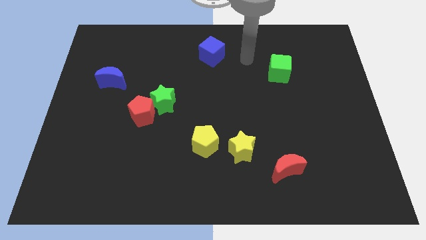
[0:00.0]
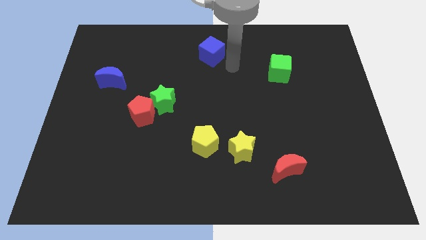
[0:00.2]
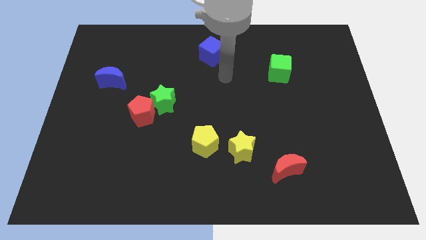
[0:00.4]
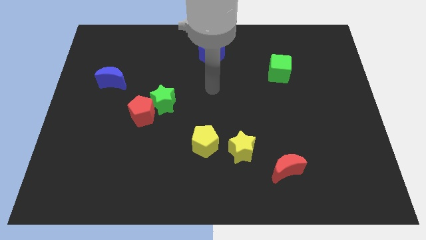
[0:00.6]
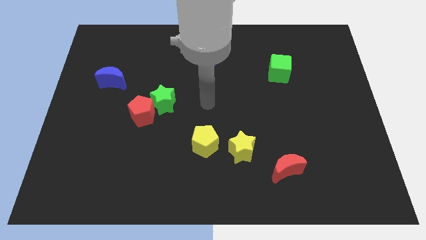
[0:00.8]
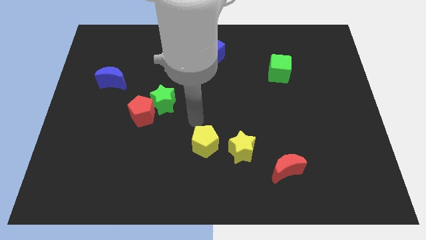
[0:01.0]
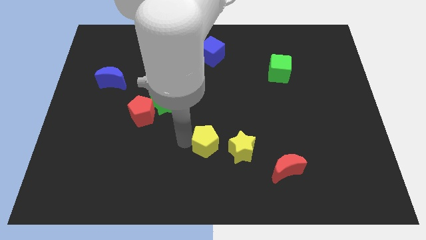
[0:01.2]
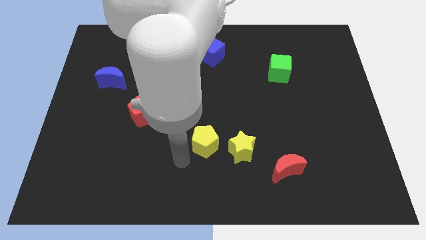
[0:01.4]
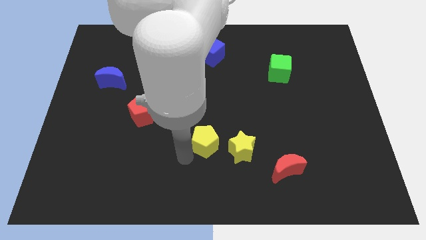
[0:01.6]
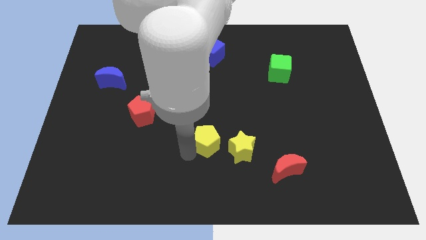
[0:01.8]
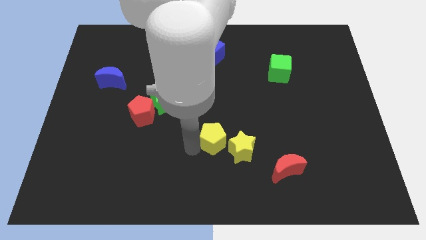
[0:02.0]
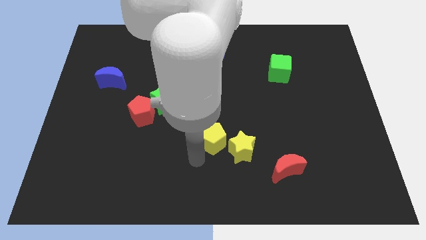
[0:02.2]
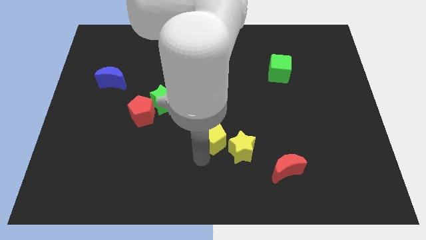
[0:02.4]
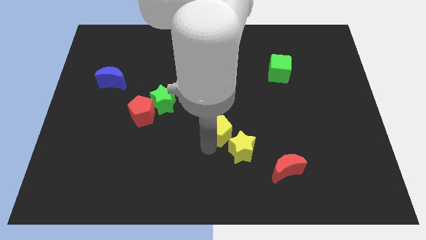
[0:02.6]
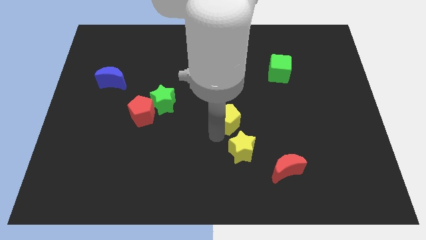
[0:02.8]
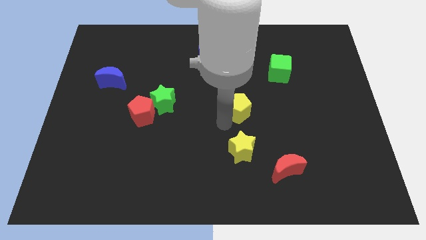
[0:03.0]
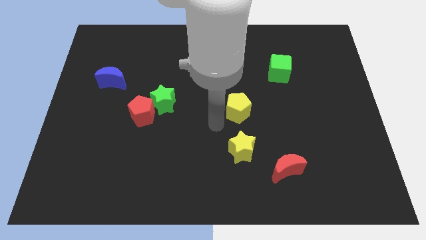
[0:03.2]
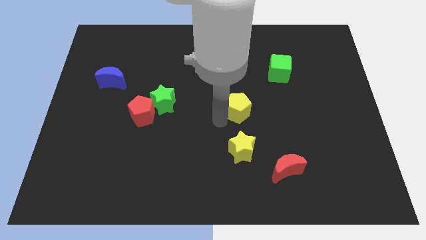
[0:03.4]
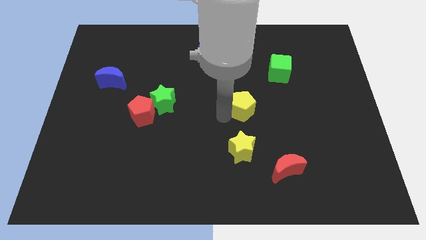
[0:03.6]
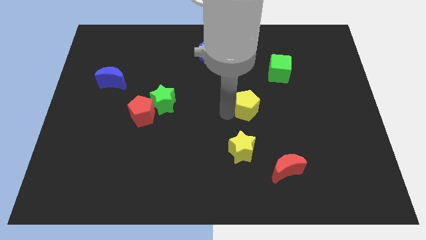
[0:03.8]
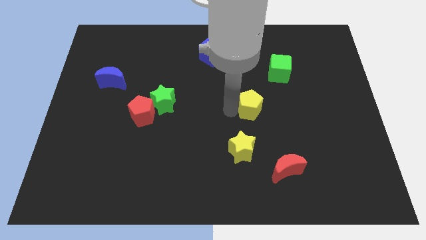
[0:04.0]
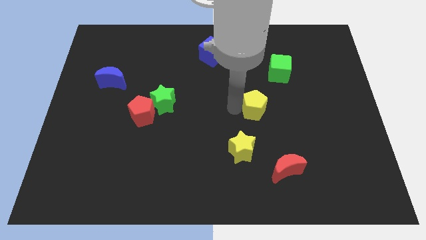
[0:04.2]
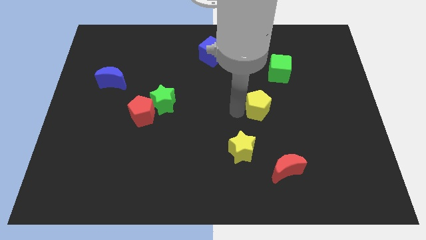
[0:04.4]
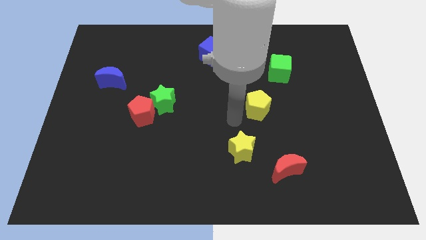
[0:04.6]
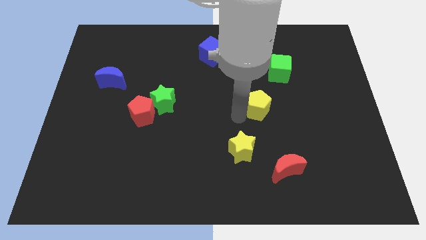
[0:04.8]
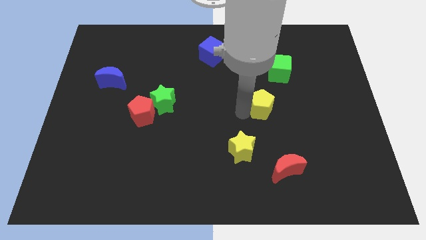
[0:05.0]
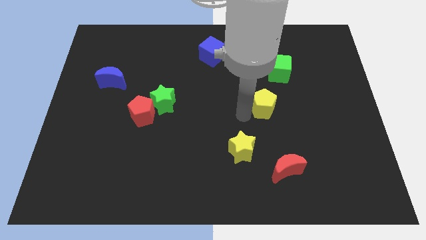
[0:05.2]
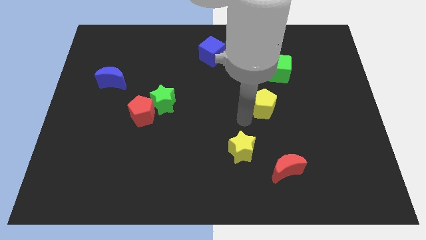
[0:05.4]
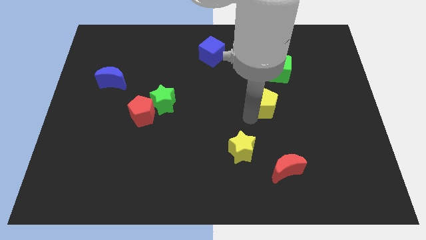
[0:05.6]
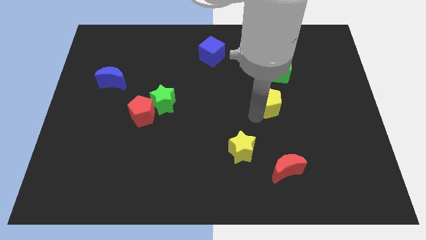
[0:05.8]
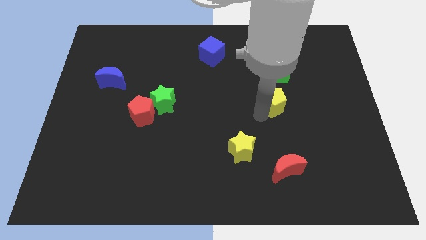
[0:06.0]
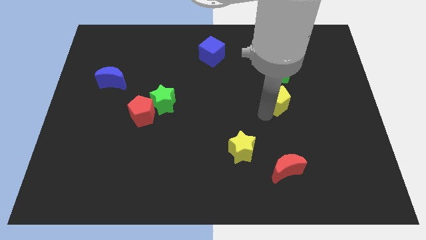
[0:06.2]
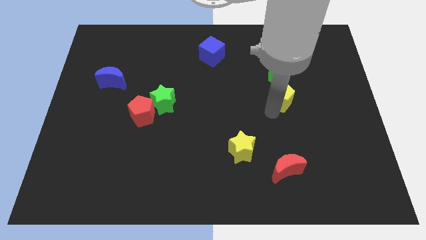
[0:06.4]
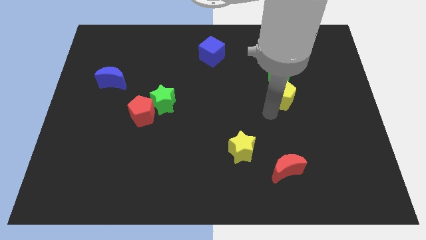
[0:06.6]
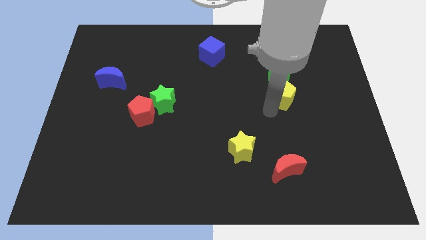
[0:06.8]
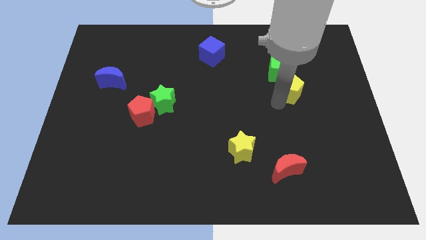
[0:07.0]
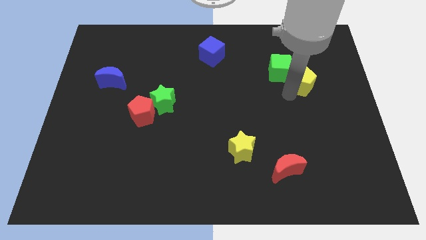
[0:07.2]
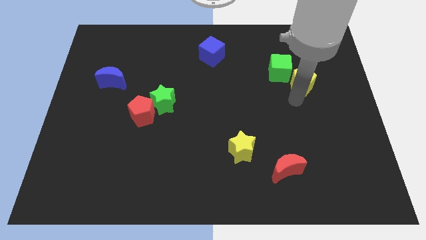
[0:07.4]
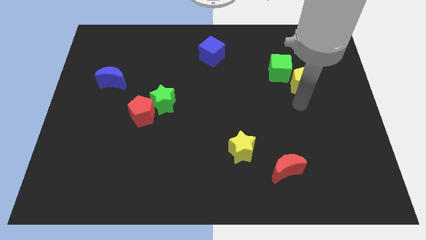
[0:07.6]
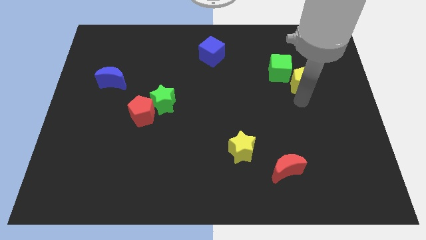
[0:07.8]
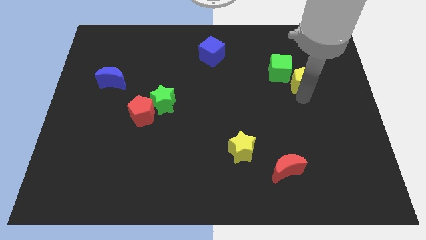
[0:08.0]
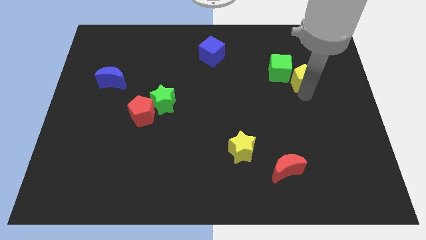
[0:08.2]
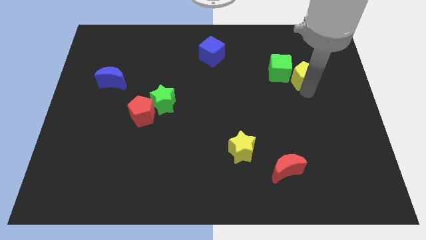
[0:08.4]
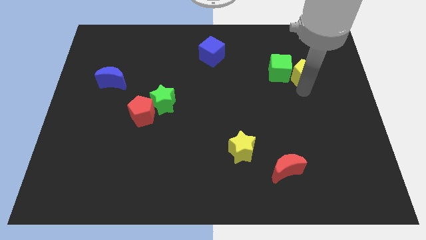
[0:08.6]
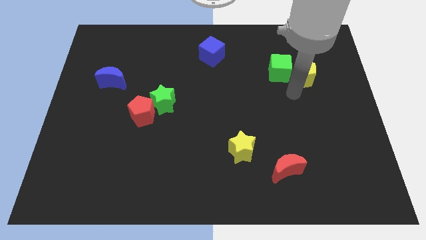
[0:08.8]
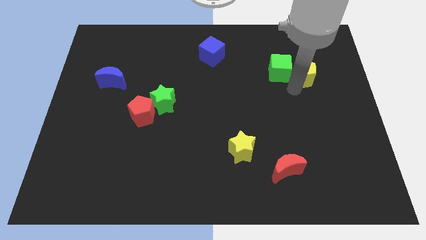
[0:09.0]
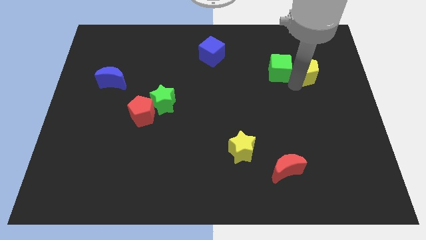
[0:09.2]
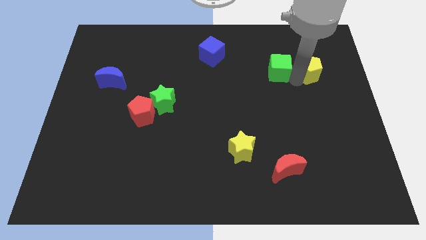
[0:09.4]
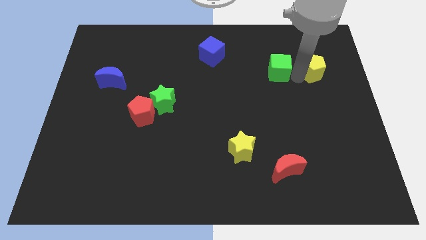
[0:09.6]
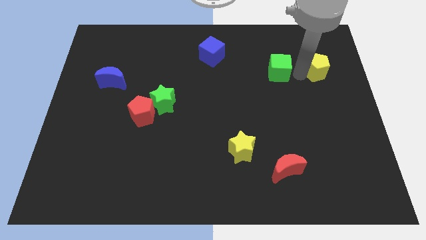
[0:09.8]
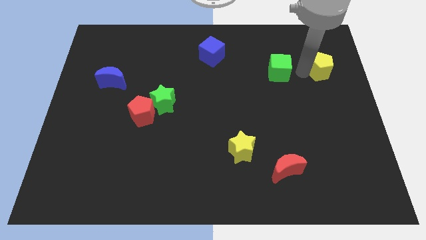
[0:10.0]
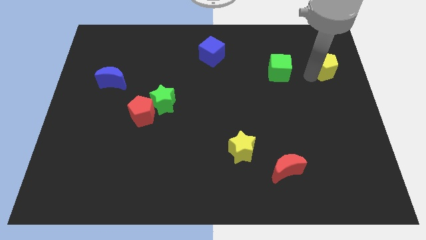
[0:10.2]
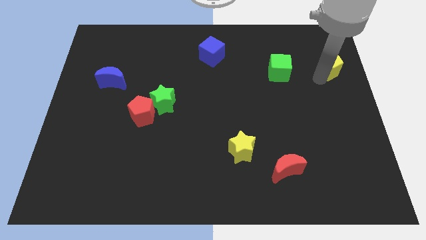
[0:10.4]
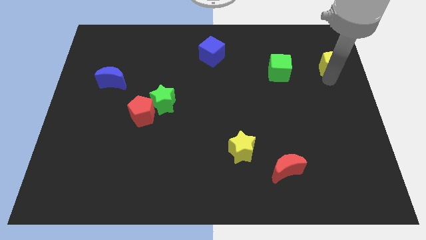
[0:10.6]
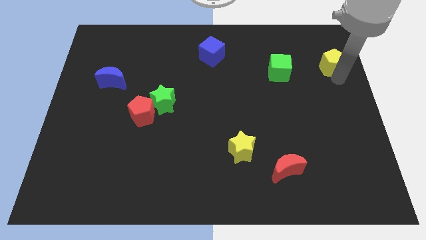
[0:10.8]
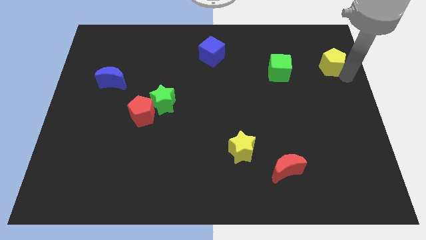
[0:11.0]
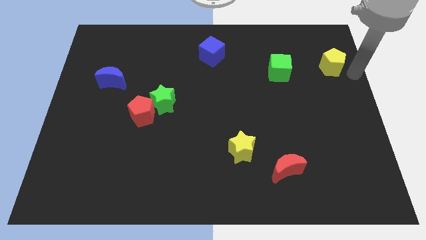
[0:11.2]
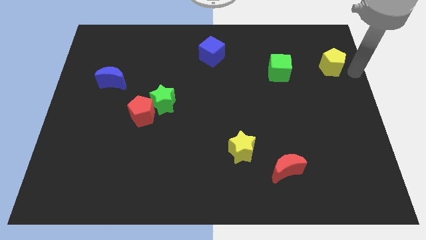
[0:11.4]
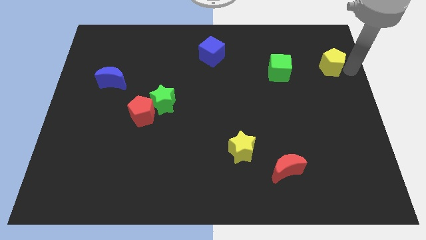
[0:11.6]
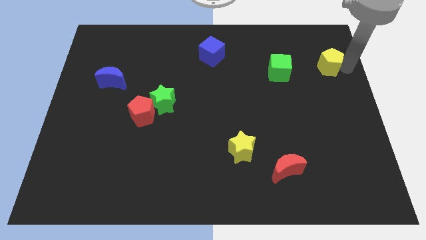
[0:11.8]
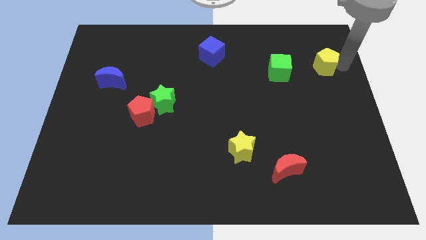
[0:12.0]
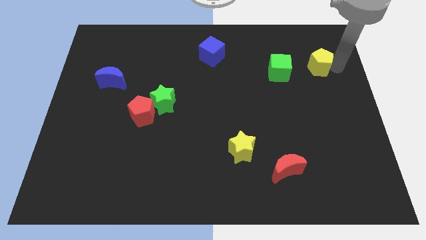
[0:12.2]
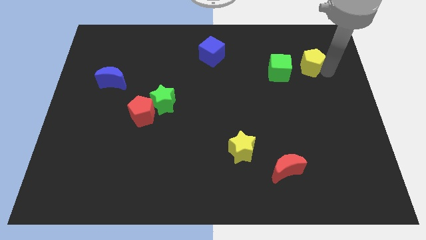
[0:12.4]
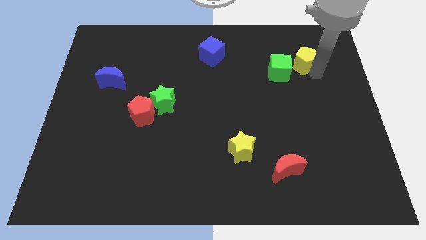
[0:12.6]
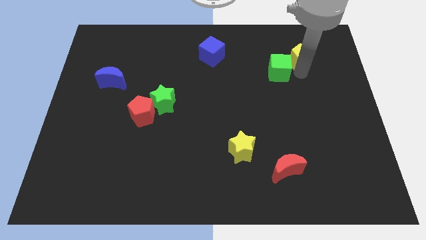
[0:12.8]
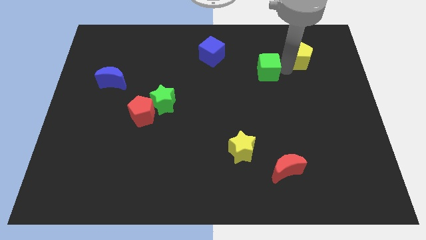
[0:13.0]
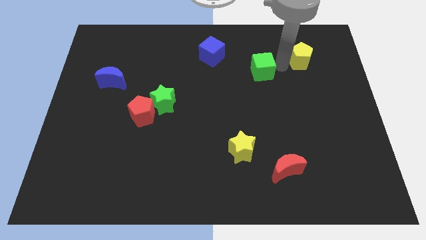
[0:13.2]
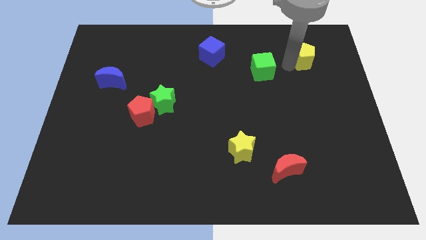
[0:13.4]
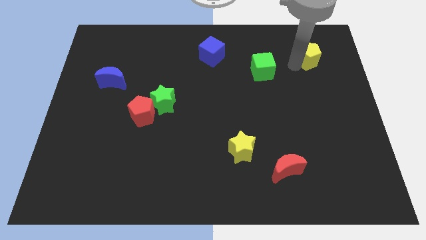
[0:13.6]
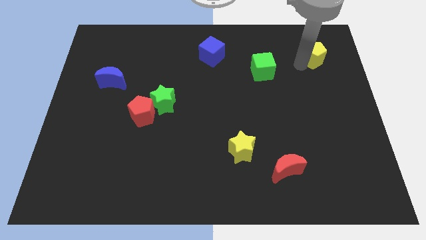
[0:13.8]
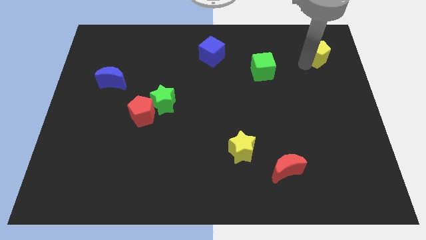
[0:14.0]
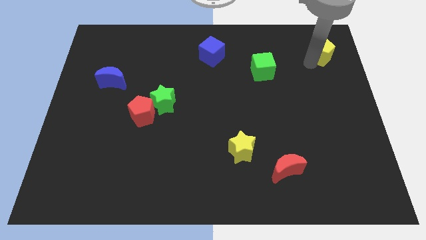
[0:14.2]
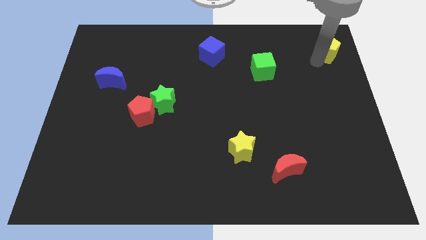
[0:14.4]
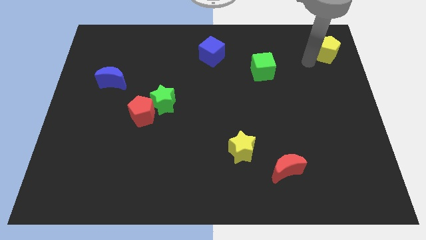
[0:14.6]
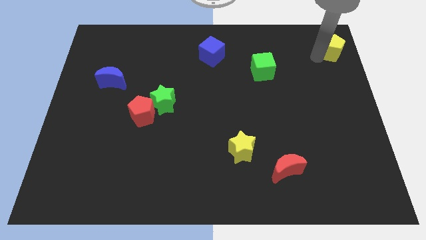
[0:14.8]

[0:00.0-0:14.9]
slide the yellow pentagon to the top right corner
